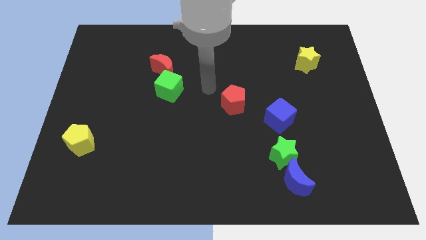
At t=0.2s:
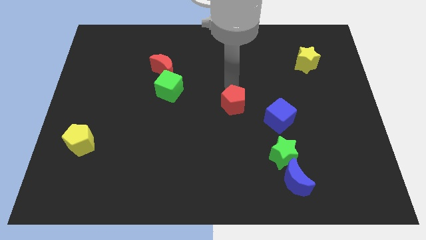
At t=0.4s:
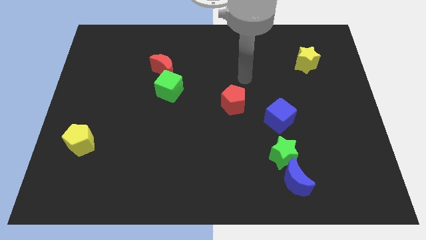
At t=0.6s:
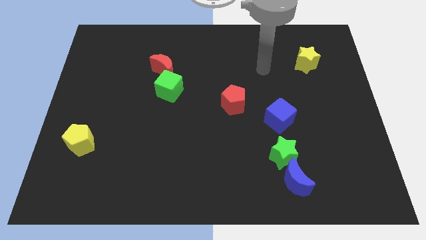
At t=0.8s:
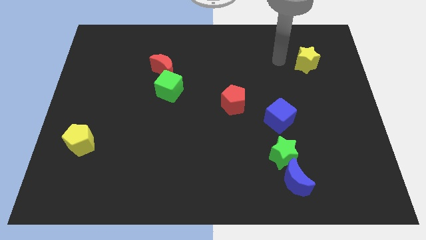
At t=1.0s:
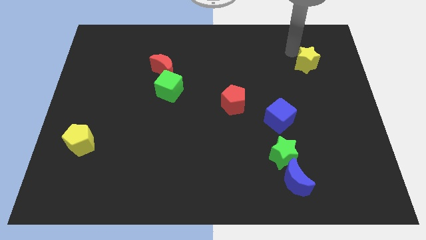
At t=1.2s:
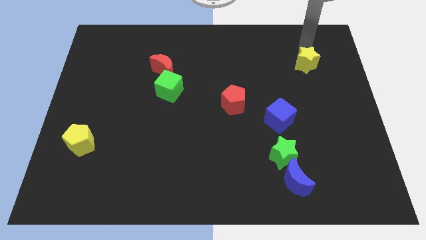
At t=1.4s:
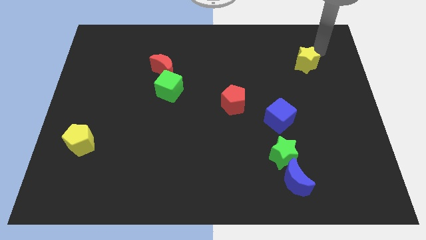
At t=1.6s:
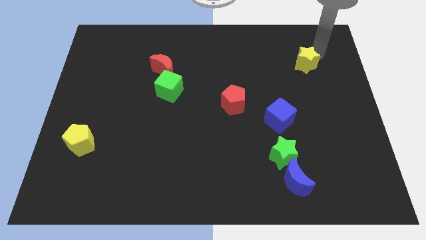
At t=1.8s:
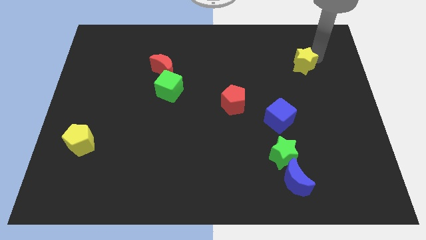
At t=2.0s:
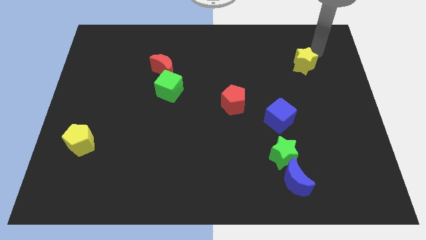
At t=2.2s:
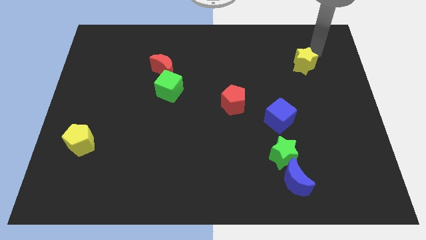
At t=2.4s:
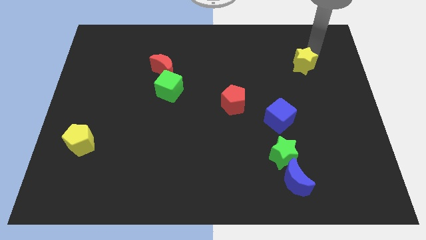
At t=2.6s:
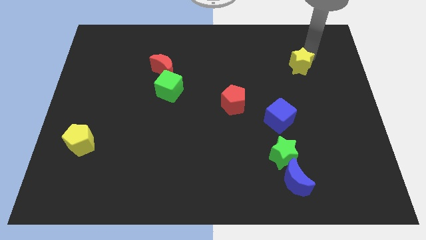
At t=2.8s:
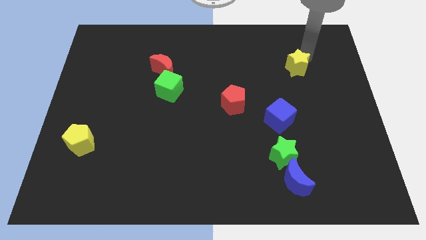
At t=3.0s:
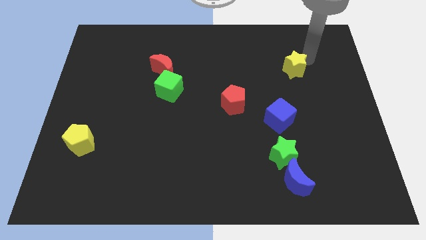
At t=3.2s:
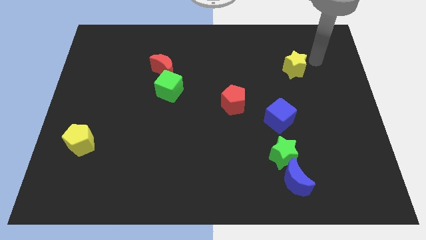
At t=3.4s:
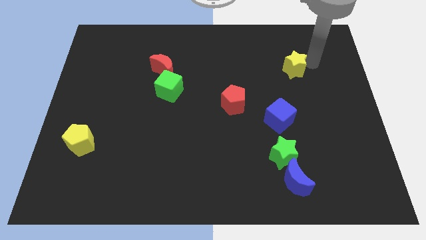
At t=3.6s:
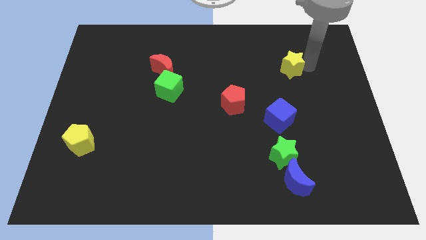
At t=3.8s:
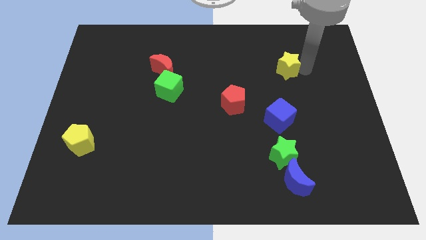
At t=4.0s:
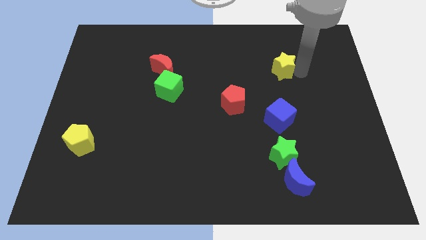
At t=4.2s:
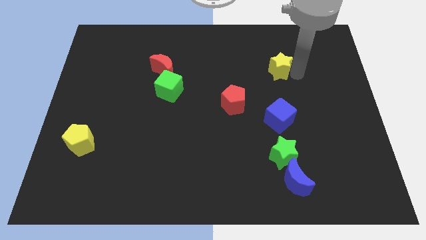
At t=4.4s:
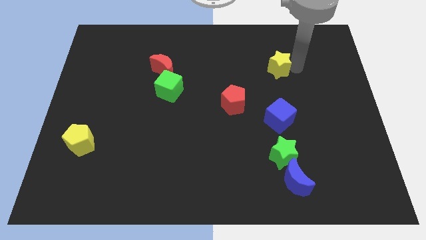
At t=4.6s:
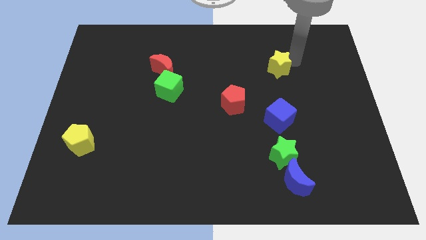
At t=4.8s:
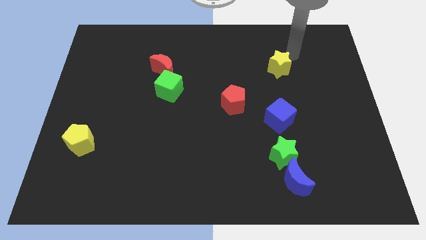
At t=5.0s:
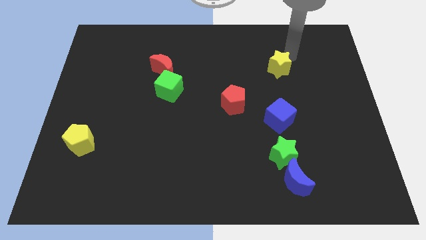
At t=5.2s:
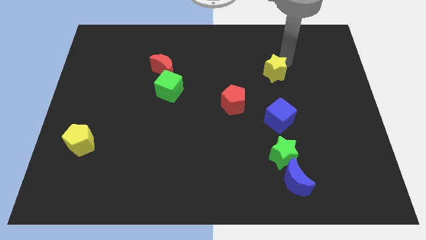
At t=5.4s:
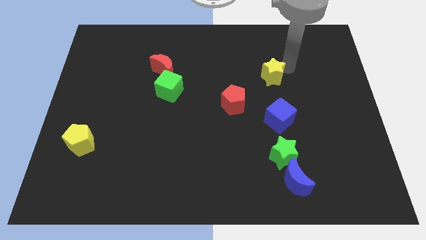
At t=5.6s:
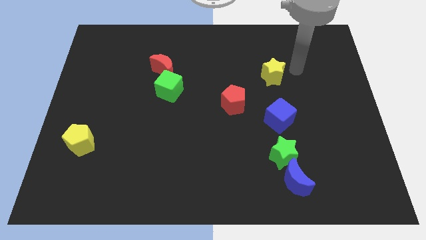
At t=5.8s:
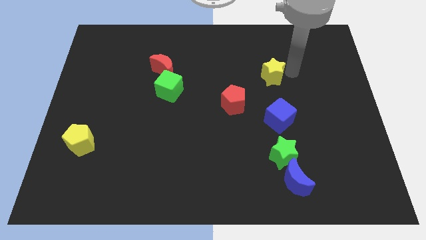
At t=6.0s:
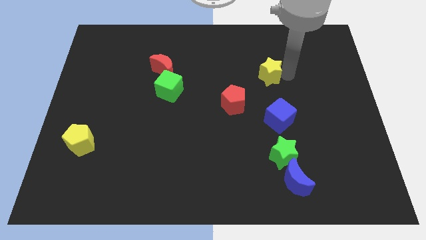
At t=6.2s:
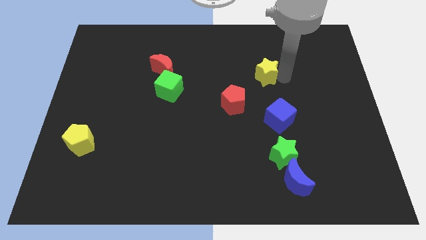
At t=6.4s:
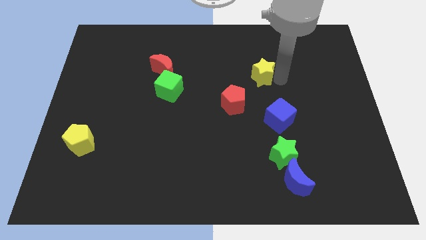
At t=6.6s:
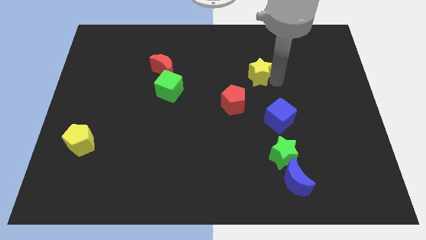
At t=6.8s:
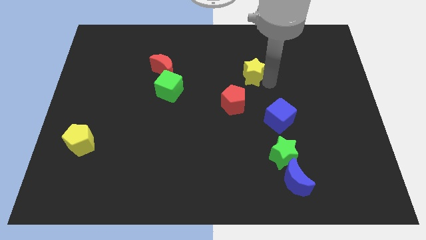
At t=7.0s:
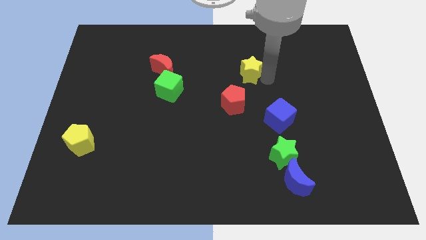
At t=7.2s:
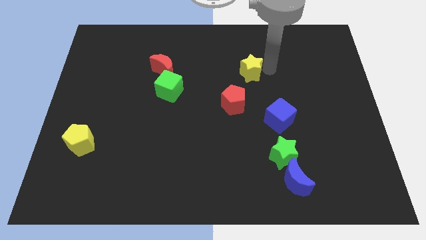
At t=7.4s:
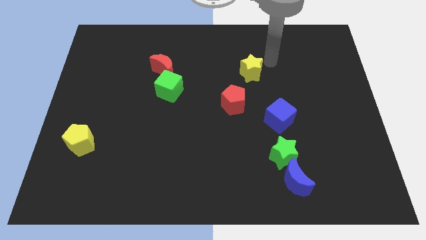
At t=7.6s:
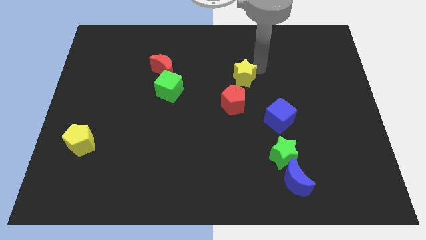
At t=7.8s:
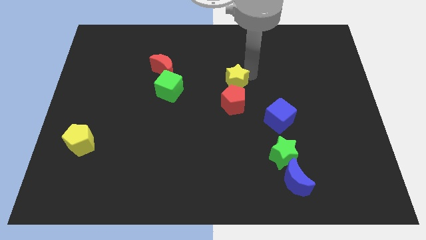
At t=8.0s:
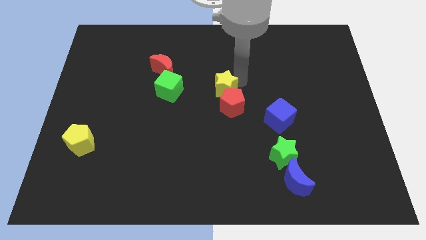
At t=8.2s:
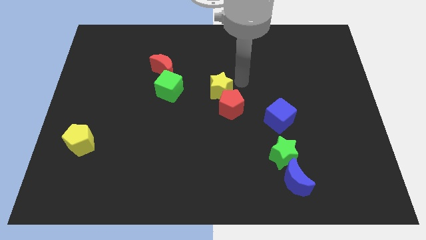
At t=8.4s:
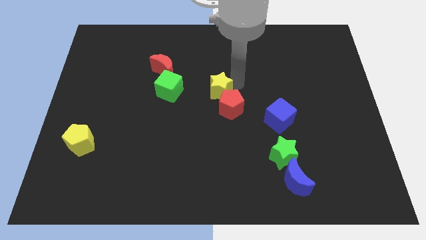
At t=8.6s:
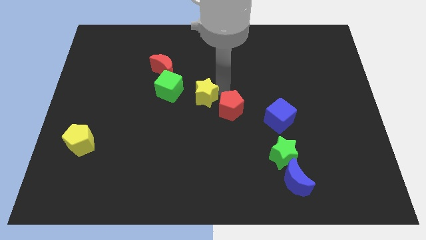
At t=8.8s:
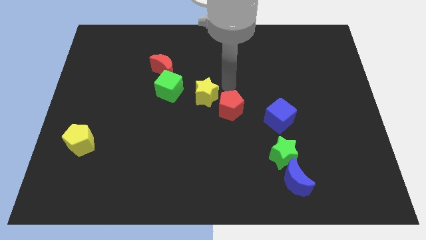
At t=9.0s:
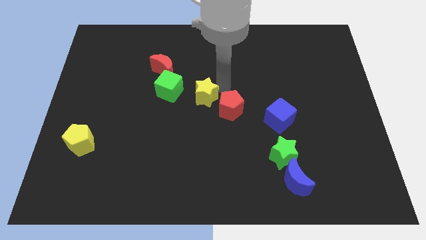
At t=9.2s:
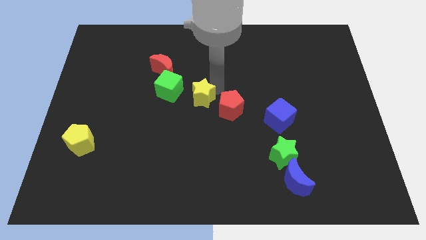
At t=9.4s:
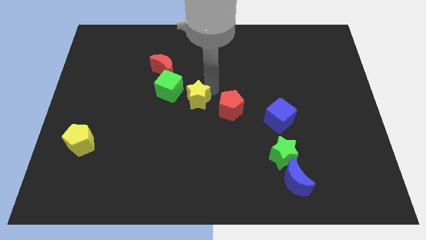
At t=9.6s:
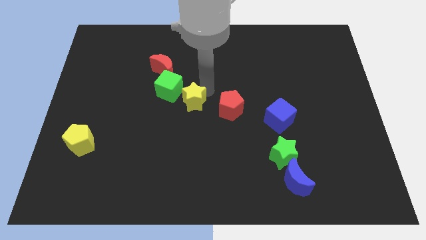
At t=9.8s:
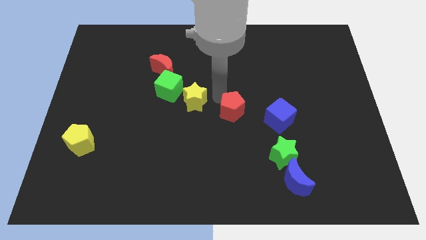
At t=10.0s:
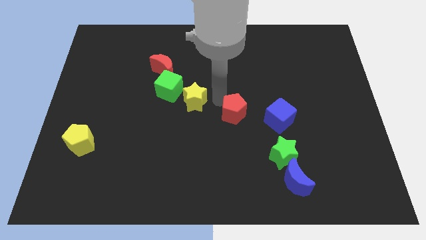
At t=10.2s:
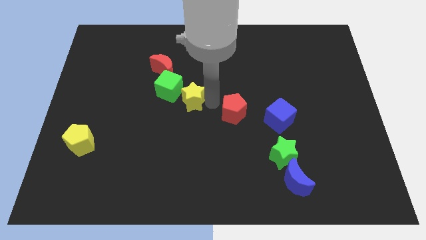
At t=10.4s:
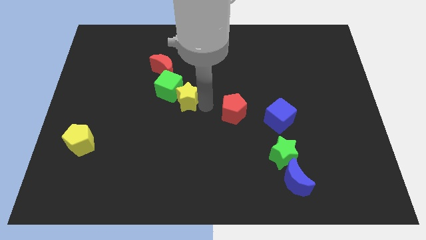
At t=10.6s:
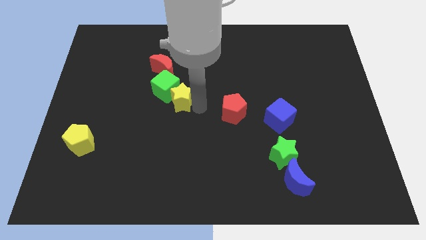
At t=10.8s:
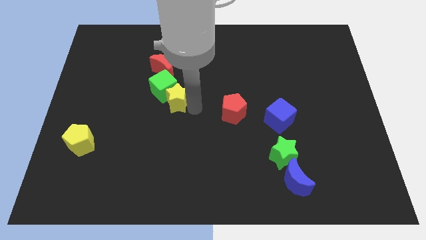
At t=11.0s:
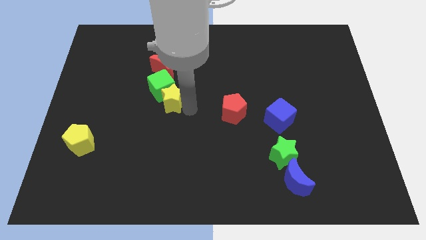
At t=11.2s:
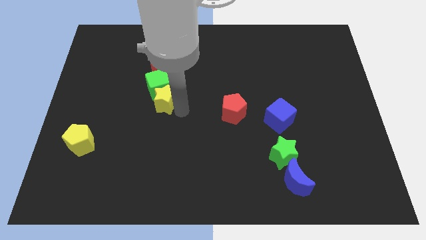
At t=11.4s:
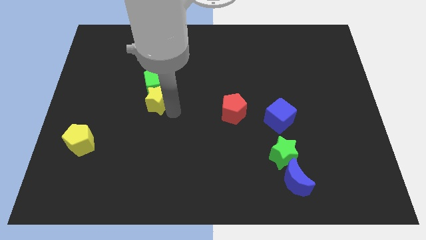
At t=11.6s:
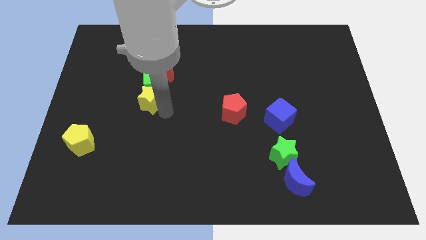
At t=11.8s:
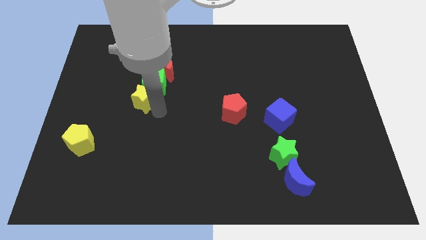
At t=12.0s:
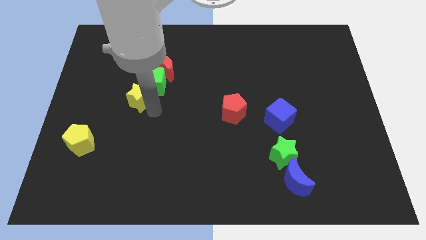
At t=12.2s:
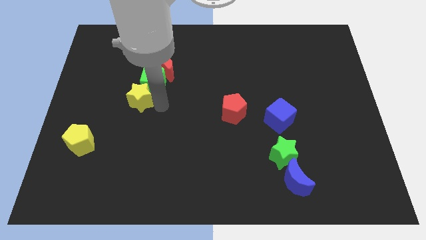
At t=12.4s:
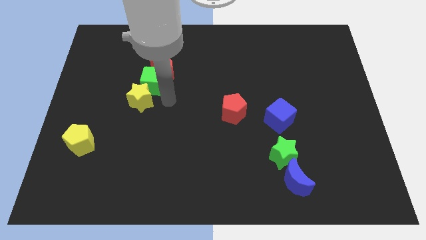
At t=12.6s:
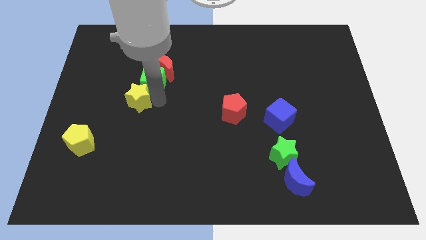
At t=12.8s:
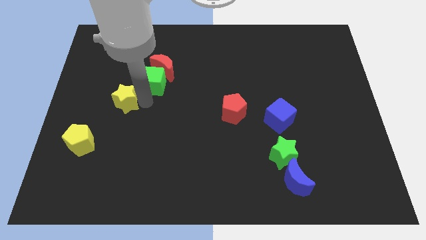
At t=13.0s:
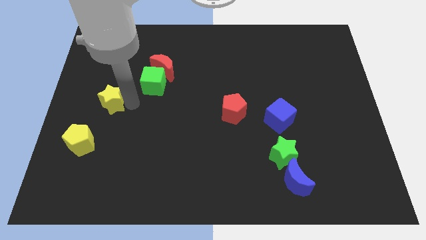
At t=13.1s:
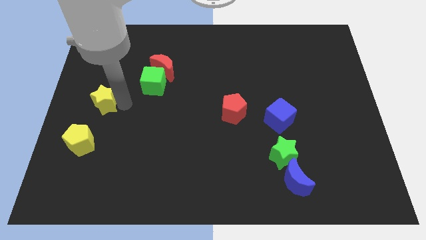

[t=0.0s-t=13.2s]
put the yellow star to the left side of the board

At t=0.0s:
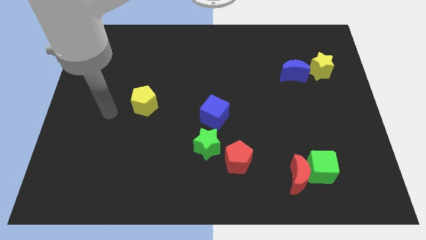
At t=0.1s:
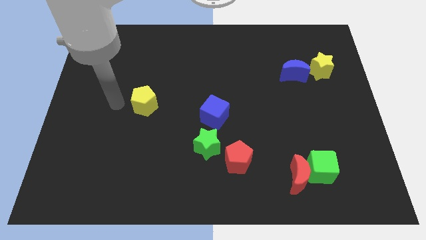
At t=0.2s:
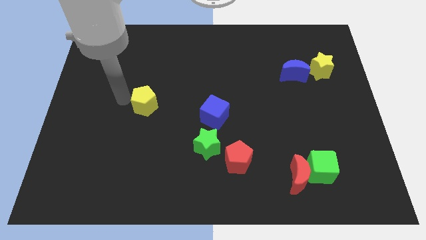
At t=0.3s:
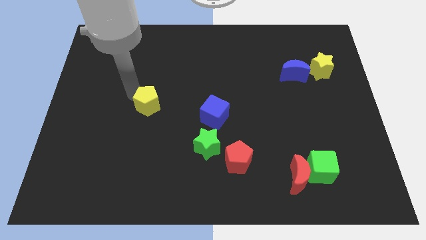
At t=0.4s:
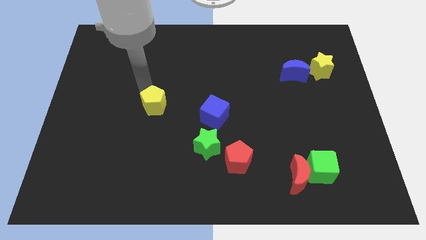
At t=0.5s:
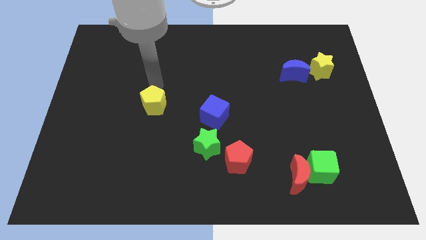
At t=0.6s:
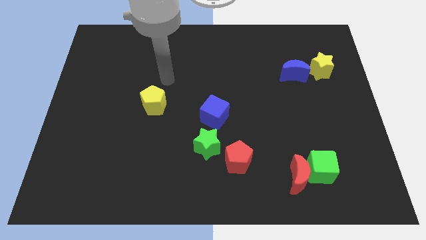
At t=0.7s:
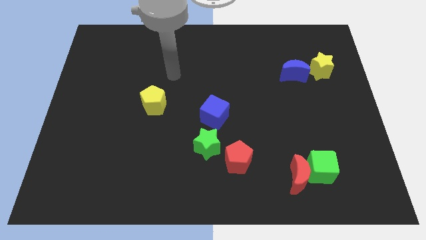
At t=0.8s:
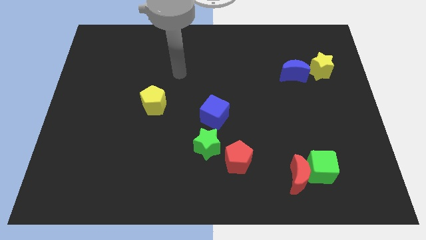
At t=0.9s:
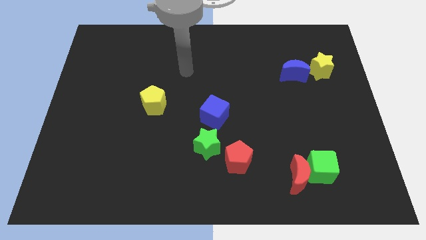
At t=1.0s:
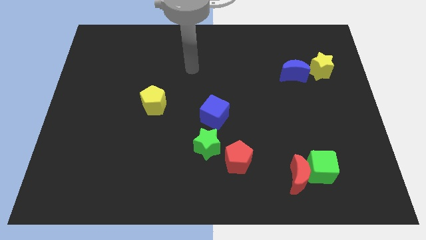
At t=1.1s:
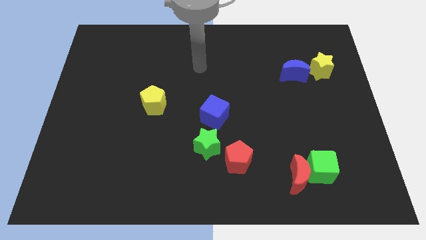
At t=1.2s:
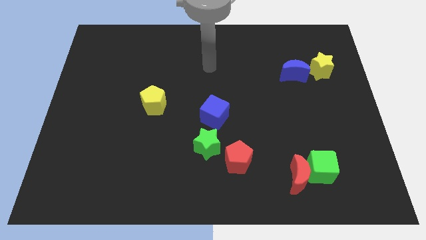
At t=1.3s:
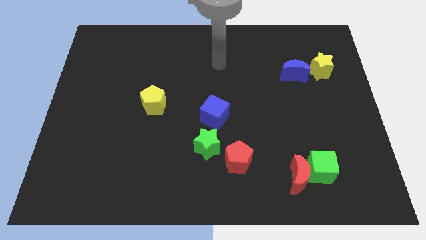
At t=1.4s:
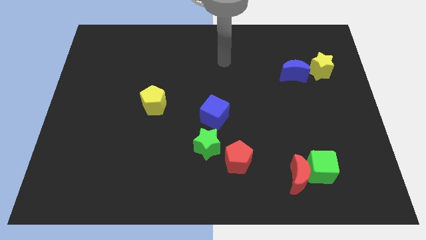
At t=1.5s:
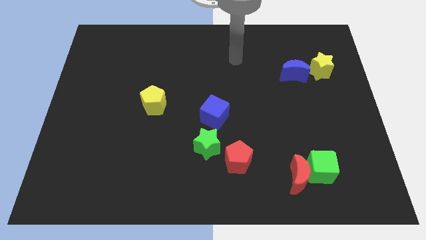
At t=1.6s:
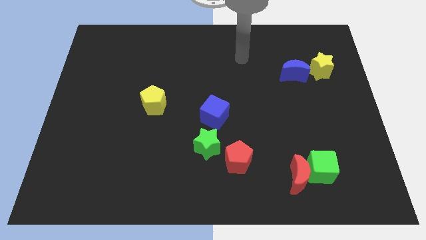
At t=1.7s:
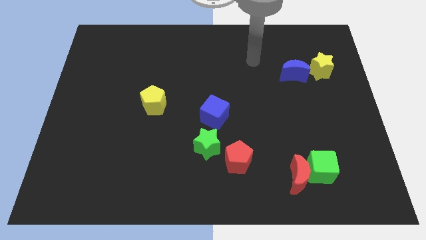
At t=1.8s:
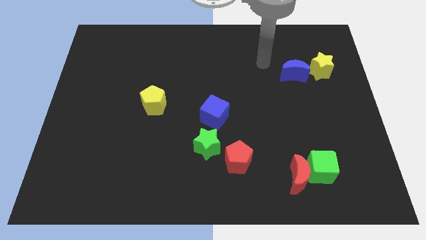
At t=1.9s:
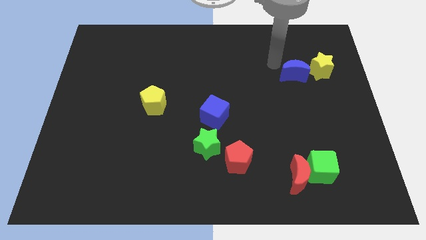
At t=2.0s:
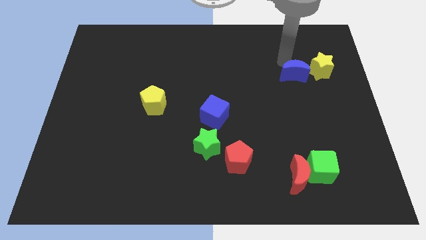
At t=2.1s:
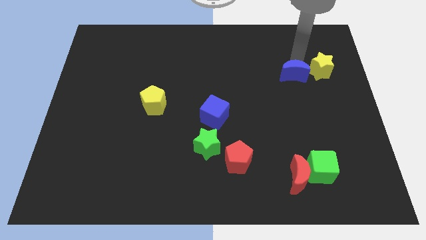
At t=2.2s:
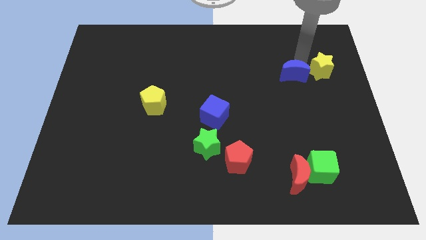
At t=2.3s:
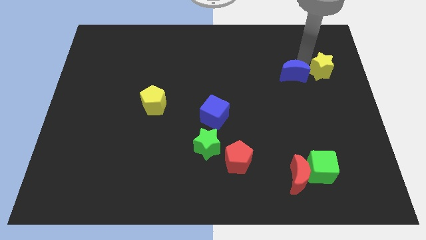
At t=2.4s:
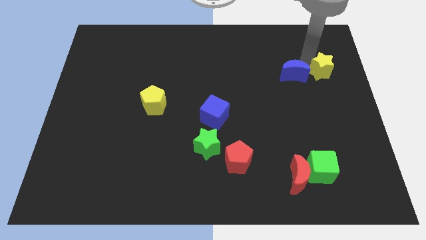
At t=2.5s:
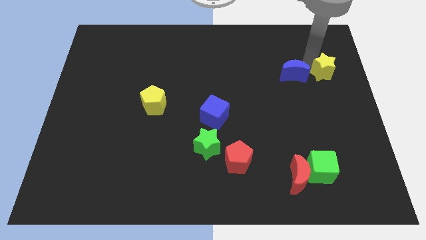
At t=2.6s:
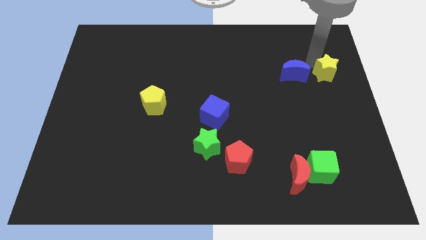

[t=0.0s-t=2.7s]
move the yellow star to the center right
